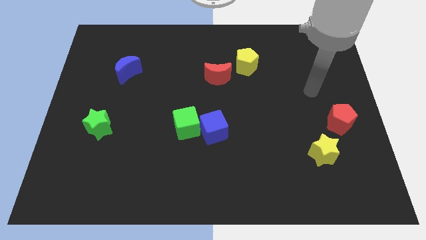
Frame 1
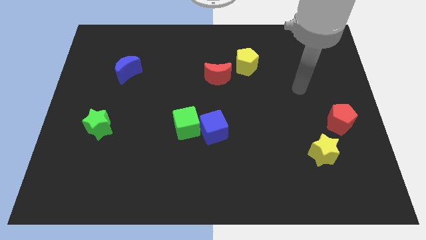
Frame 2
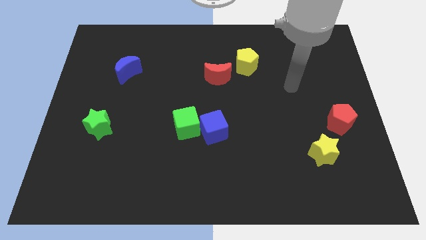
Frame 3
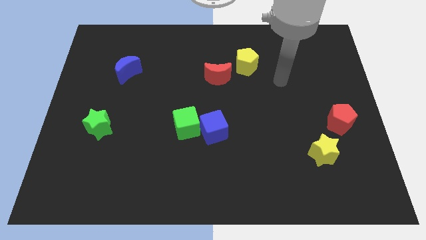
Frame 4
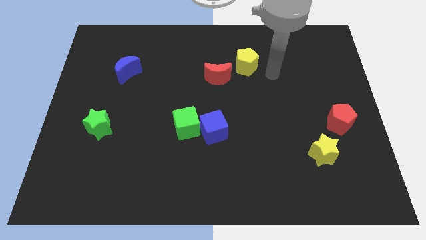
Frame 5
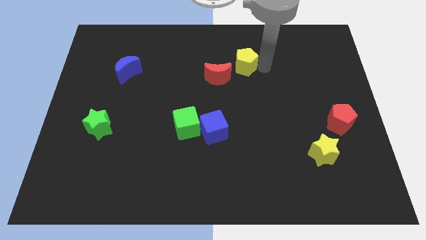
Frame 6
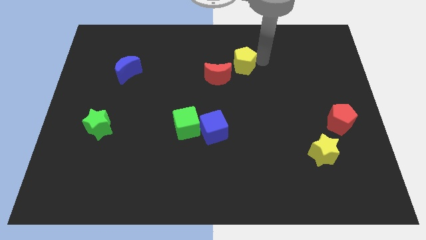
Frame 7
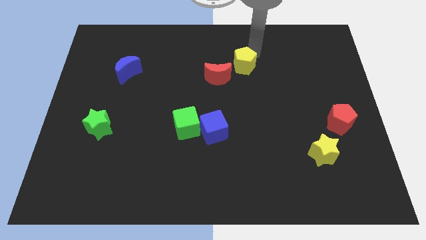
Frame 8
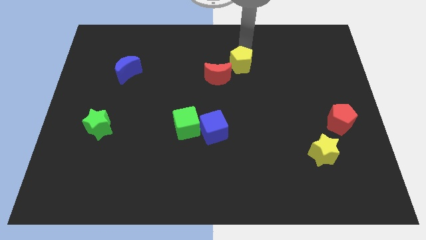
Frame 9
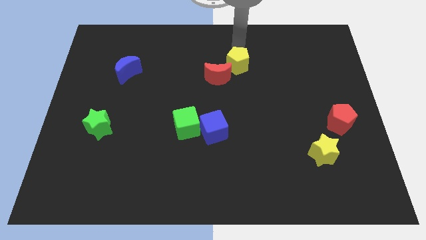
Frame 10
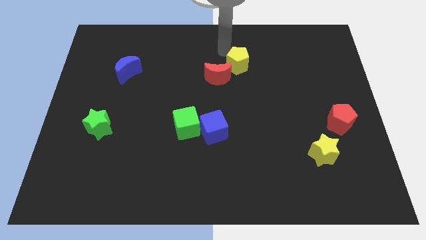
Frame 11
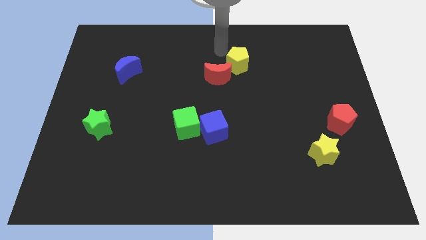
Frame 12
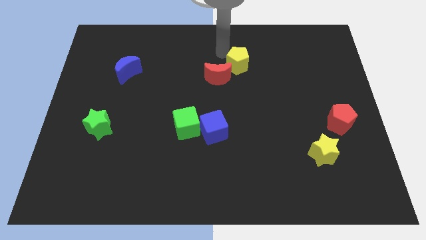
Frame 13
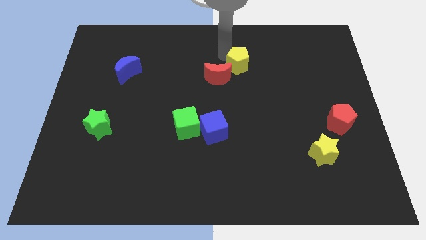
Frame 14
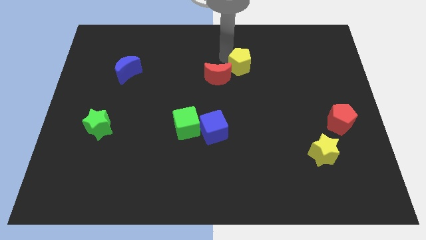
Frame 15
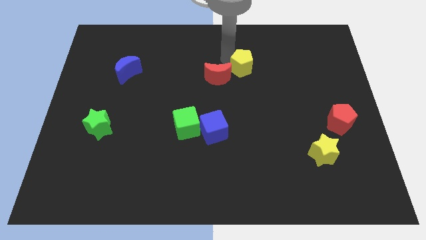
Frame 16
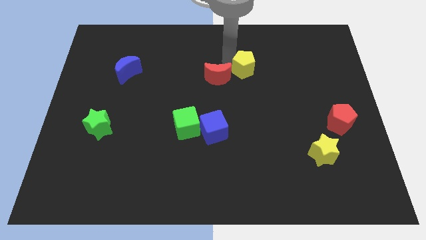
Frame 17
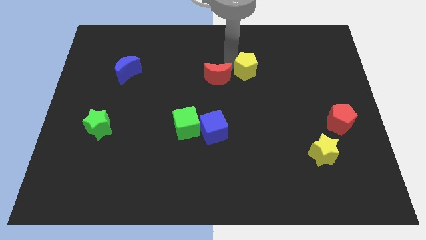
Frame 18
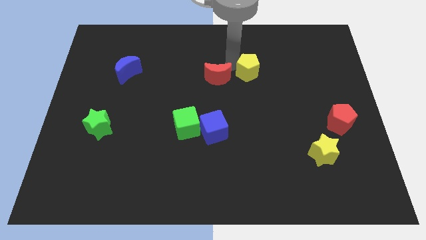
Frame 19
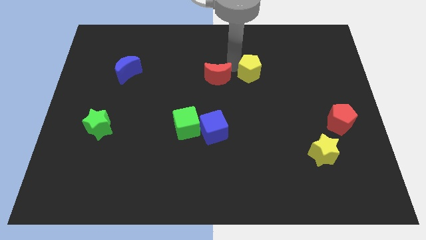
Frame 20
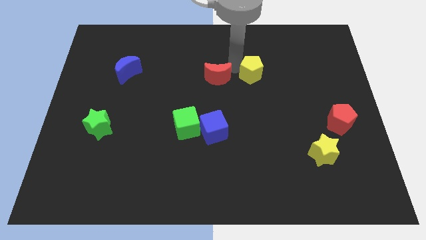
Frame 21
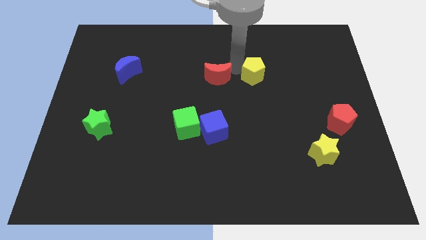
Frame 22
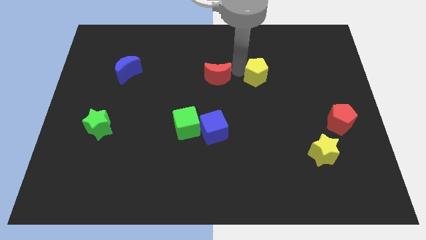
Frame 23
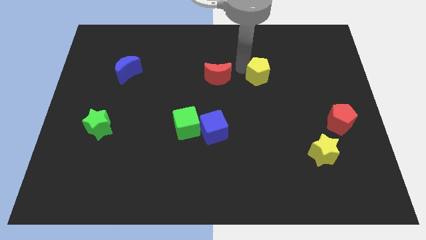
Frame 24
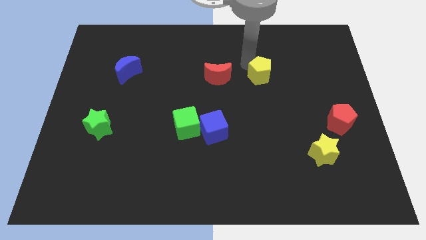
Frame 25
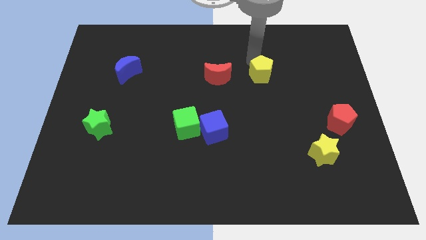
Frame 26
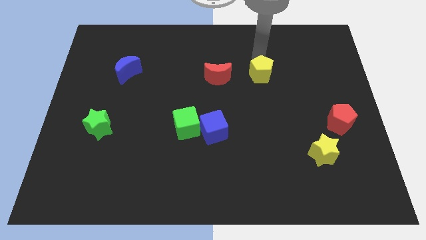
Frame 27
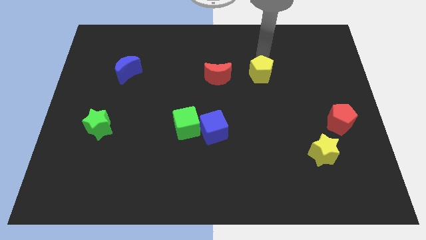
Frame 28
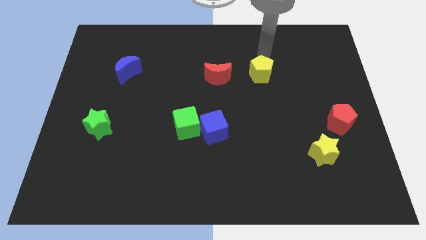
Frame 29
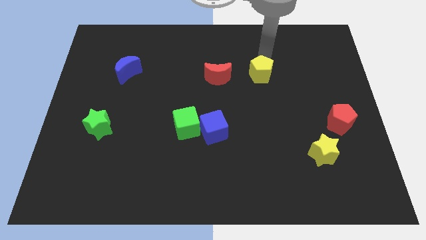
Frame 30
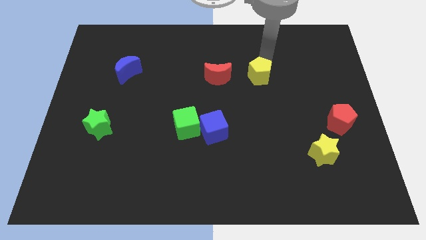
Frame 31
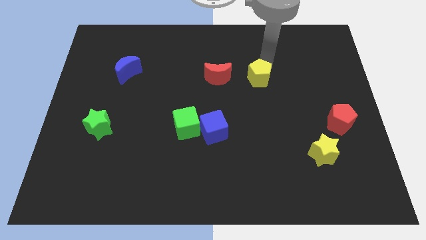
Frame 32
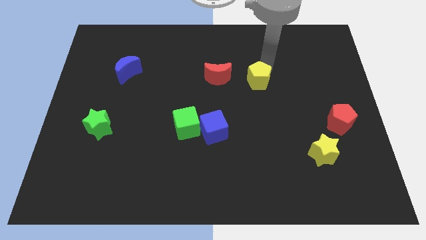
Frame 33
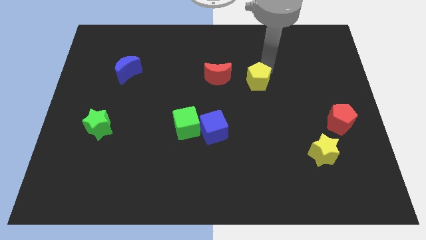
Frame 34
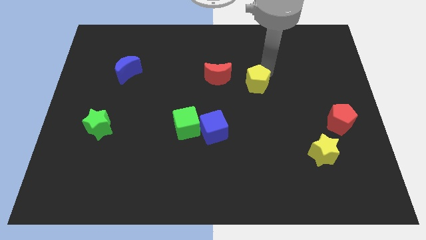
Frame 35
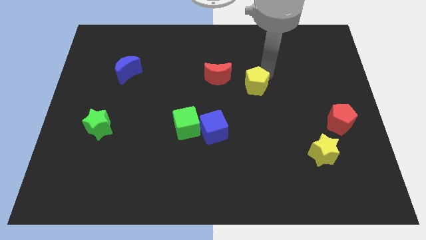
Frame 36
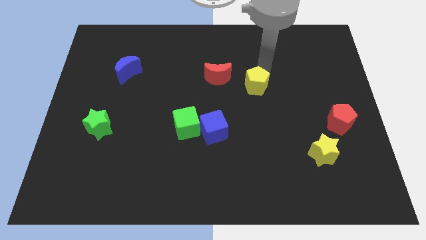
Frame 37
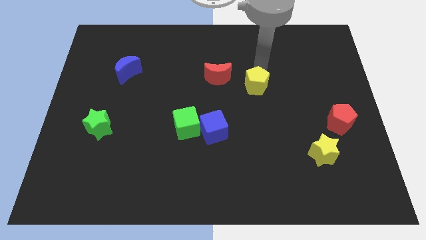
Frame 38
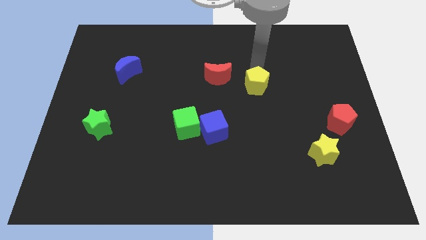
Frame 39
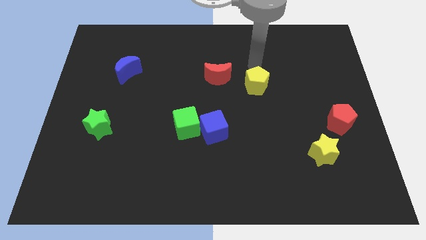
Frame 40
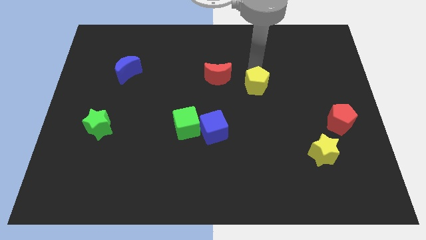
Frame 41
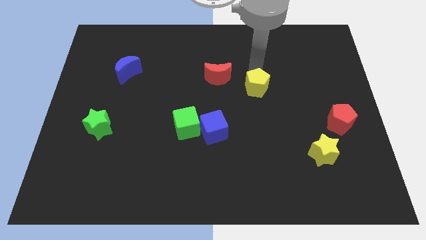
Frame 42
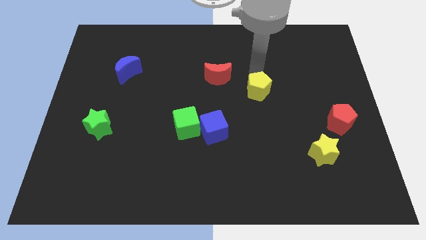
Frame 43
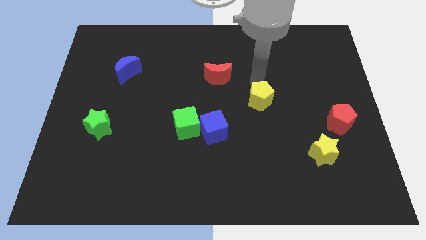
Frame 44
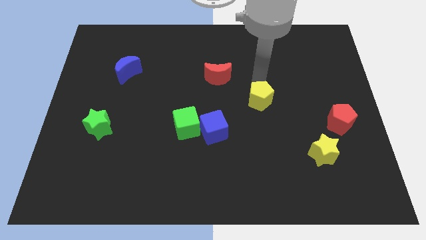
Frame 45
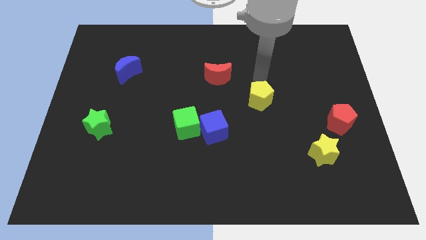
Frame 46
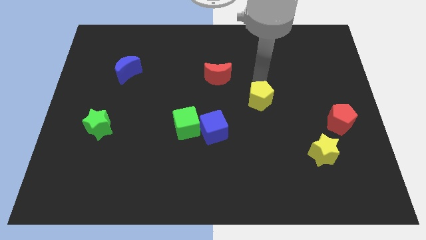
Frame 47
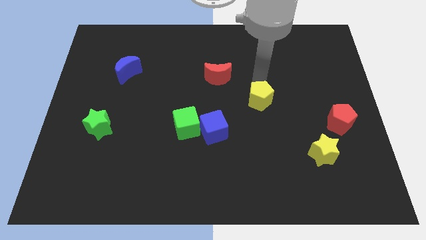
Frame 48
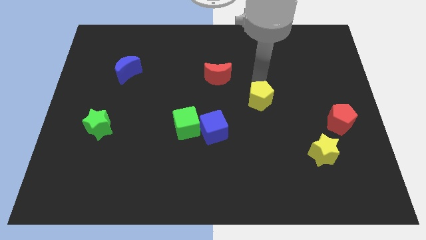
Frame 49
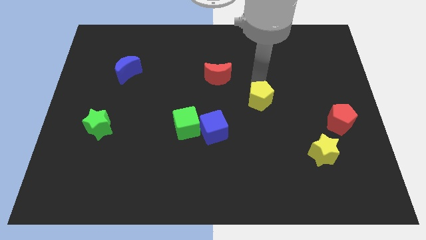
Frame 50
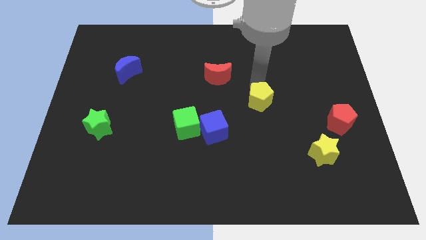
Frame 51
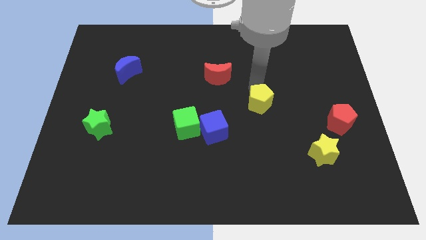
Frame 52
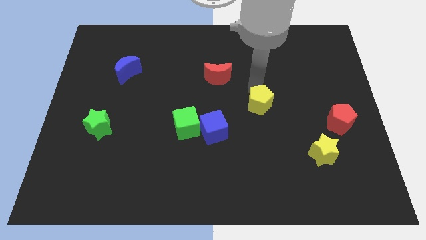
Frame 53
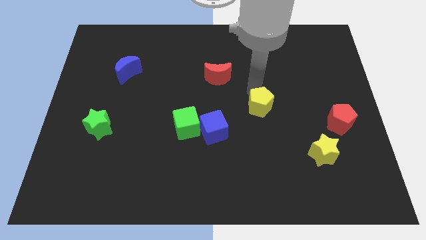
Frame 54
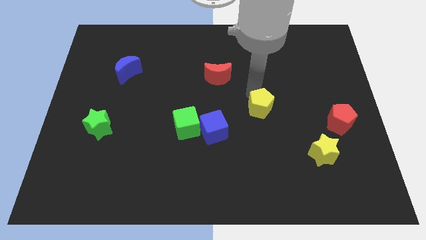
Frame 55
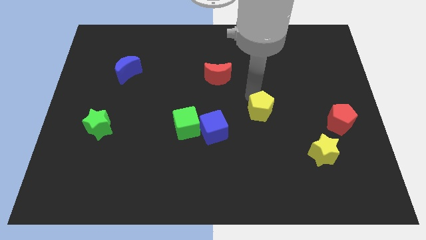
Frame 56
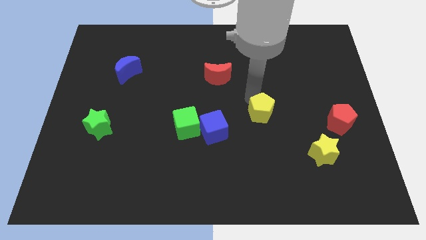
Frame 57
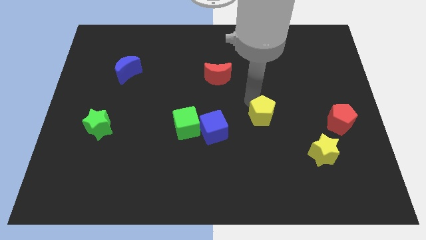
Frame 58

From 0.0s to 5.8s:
put the yellow pentagon right of the blue cube

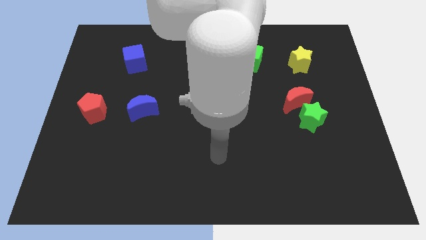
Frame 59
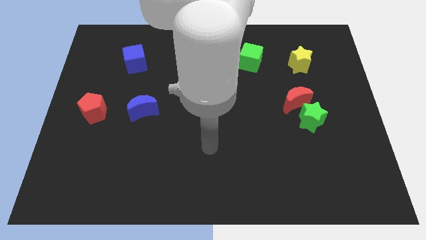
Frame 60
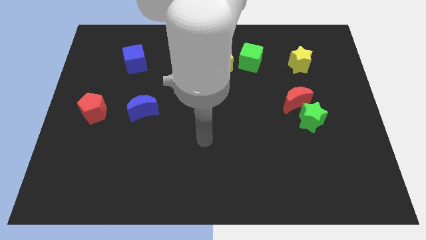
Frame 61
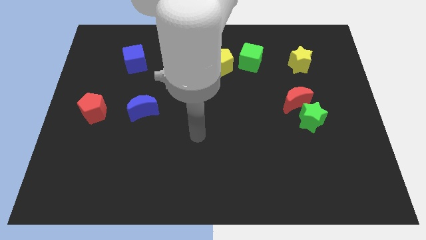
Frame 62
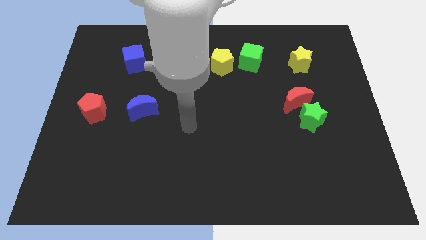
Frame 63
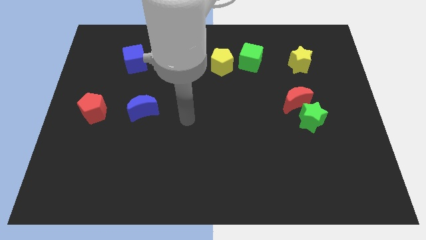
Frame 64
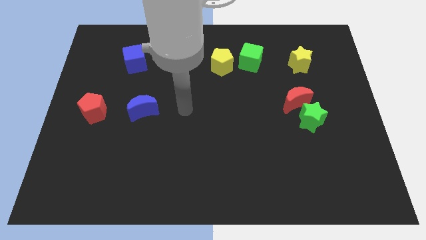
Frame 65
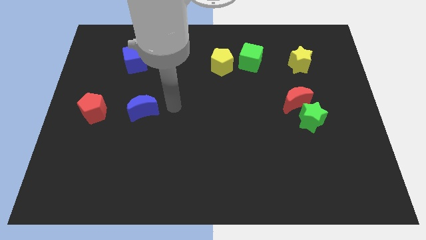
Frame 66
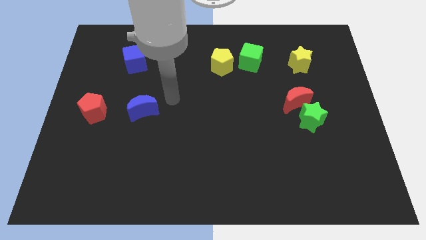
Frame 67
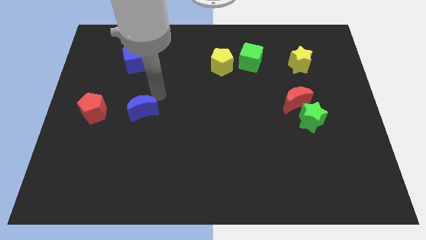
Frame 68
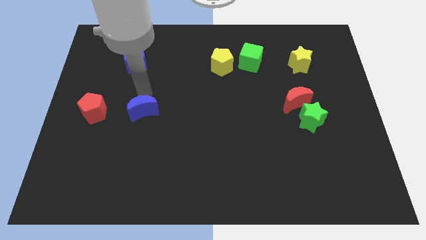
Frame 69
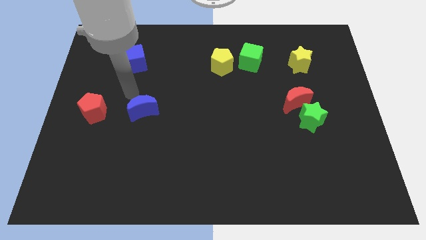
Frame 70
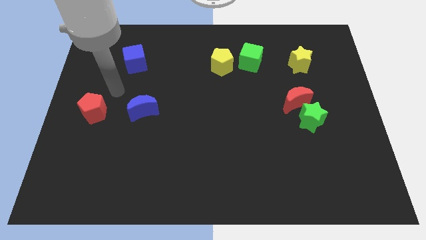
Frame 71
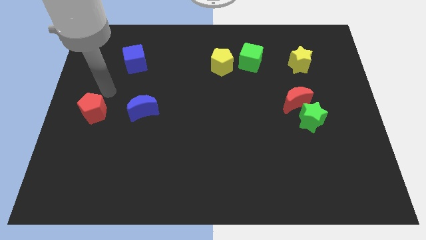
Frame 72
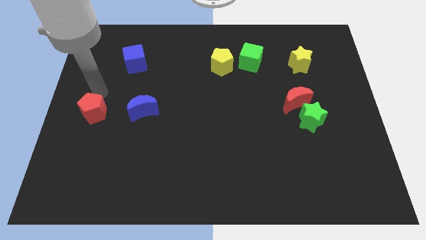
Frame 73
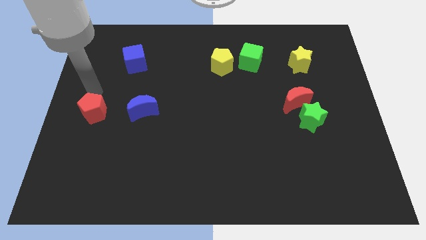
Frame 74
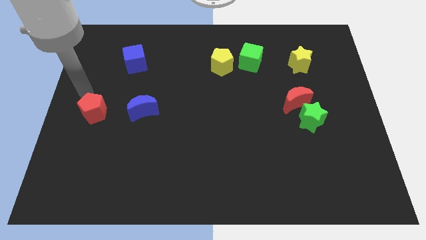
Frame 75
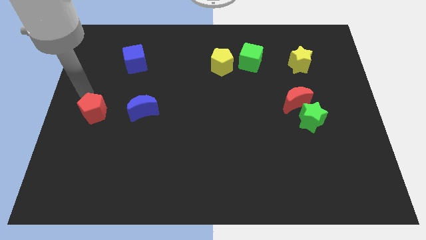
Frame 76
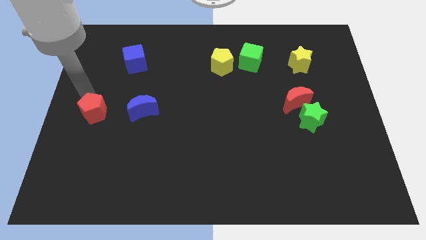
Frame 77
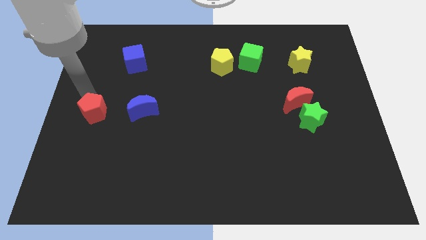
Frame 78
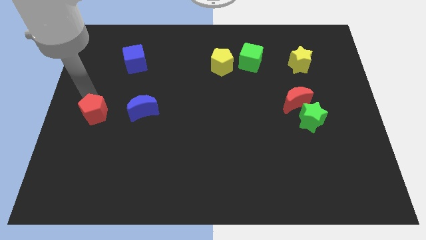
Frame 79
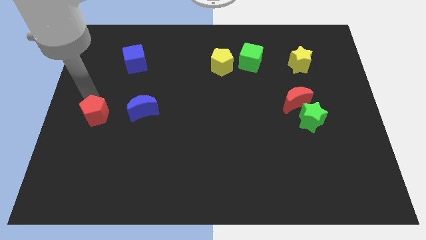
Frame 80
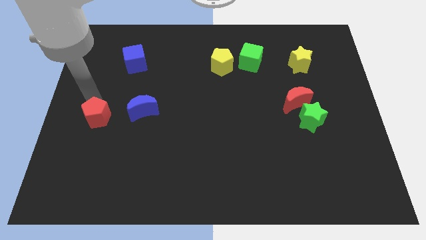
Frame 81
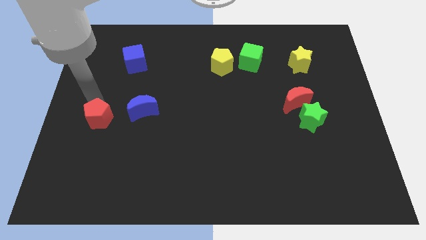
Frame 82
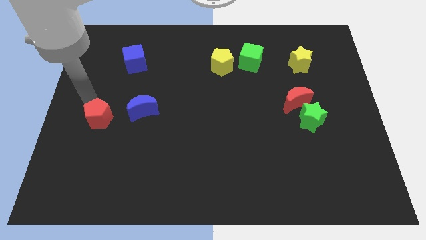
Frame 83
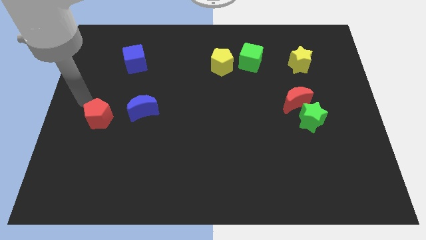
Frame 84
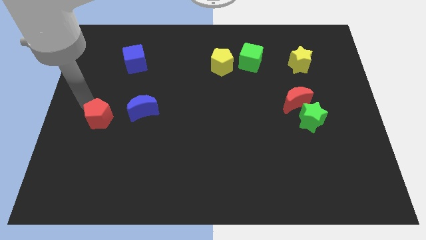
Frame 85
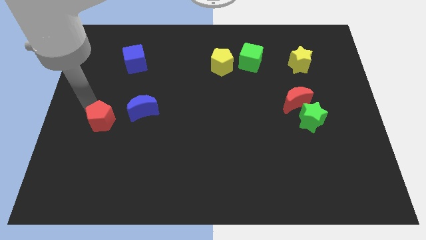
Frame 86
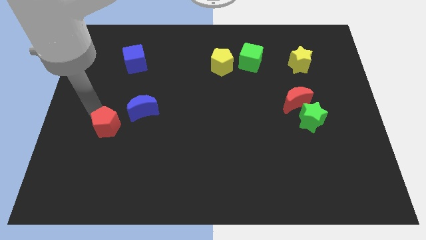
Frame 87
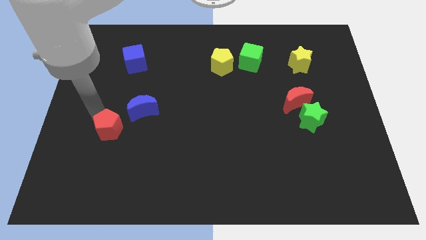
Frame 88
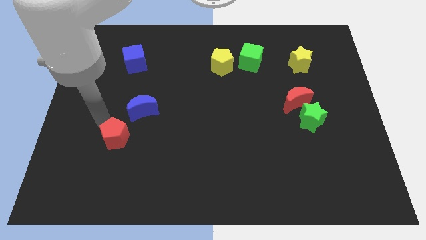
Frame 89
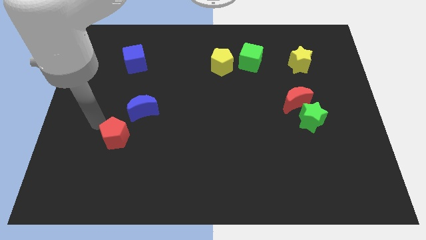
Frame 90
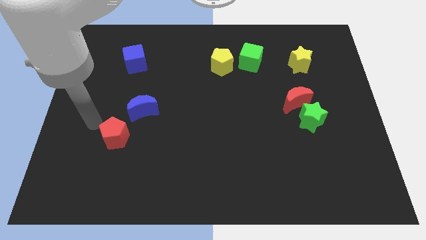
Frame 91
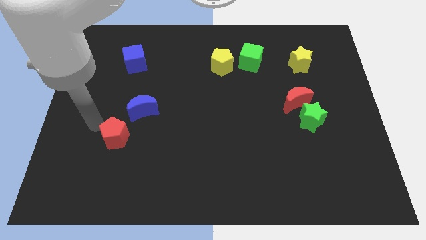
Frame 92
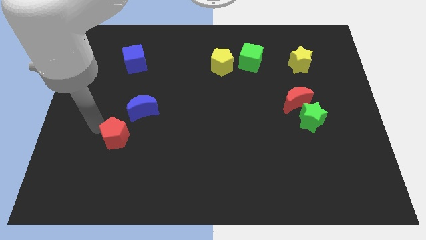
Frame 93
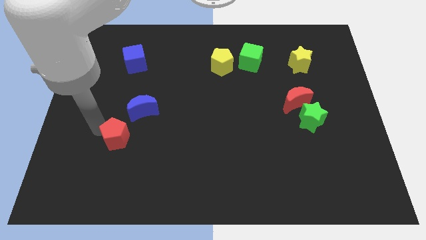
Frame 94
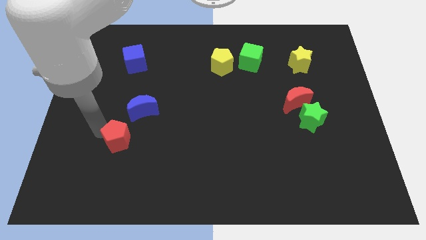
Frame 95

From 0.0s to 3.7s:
put the red pentagon to the bottom side of the blue moon
